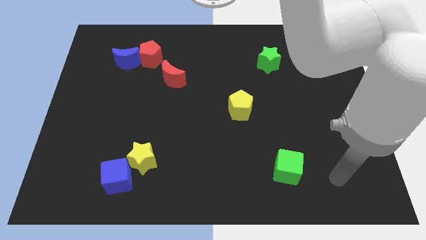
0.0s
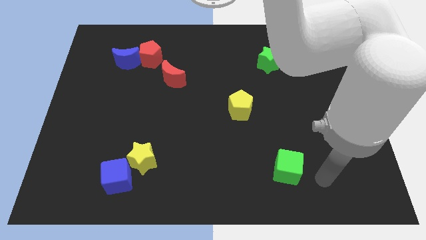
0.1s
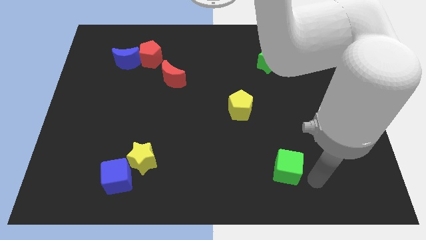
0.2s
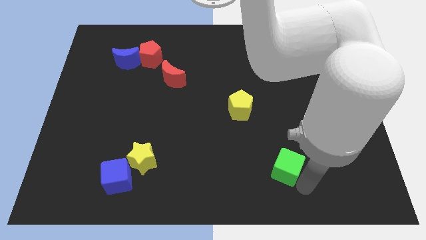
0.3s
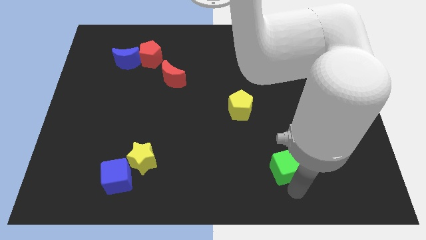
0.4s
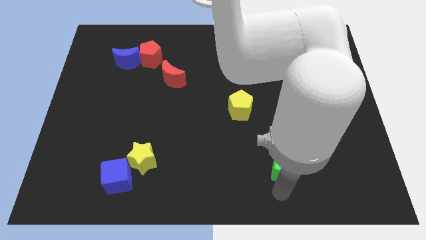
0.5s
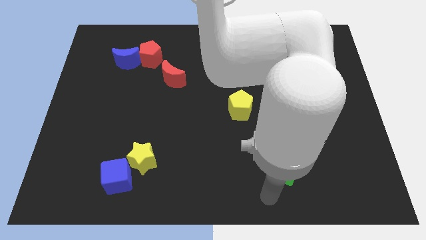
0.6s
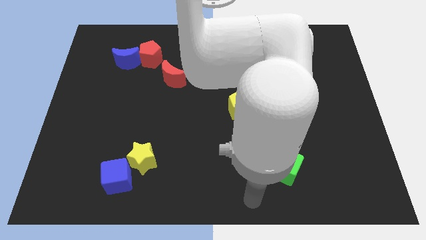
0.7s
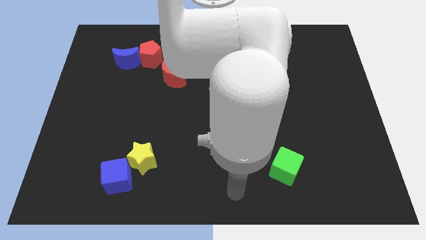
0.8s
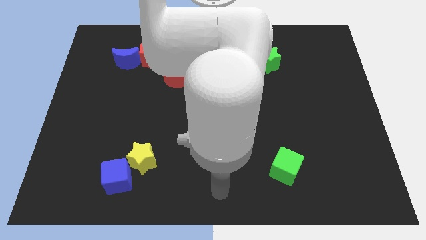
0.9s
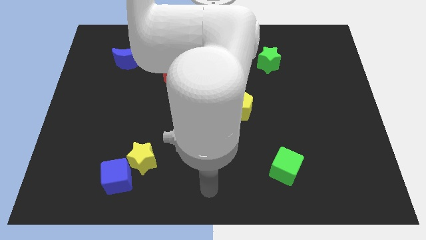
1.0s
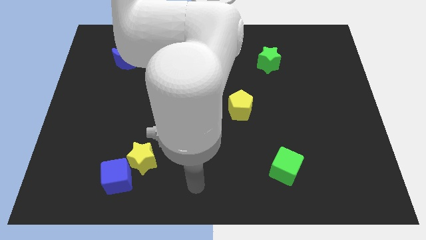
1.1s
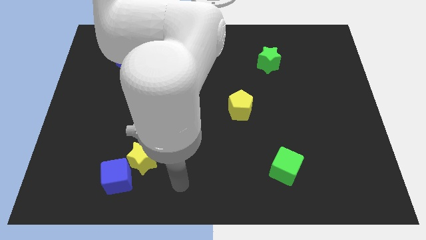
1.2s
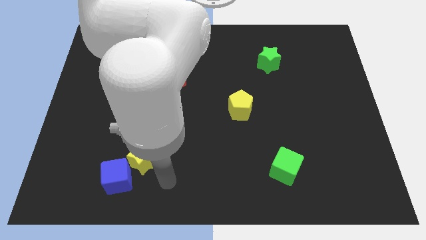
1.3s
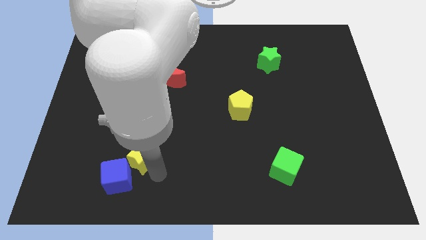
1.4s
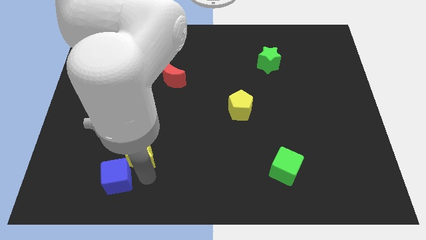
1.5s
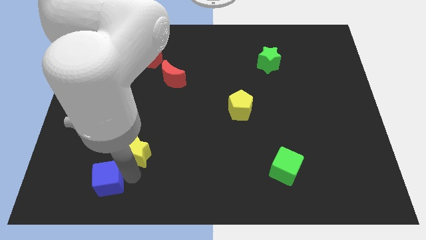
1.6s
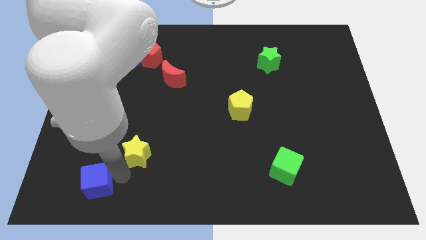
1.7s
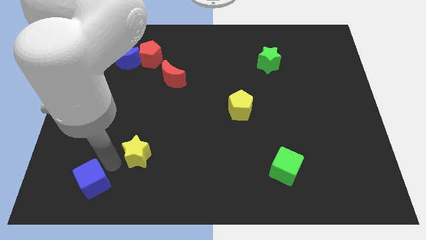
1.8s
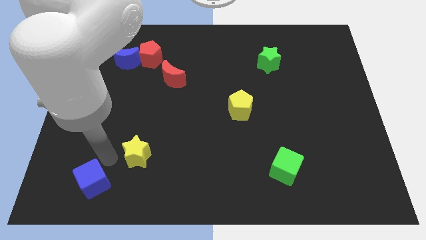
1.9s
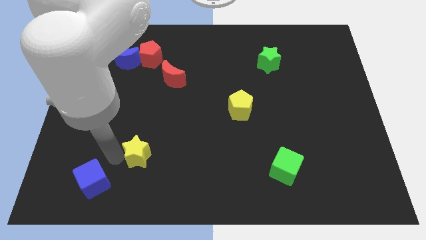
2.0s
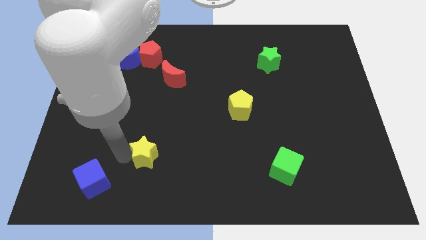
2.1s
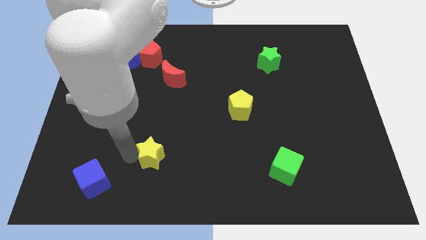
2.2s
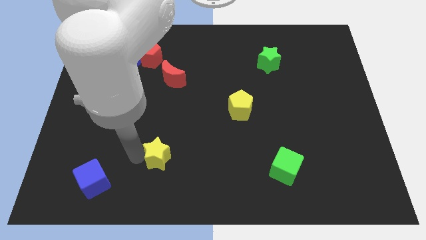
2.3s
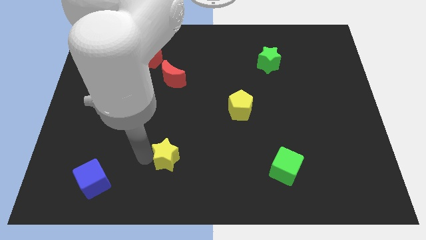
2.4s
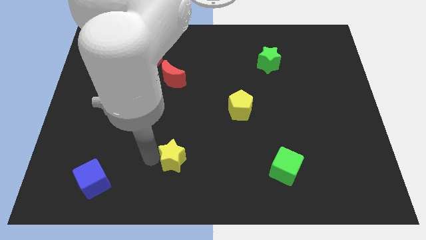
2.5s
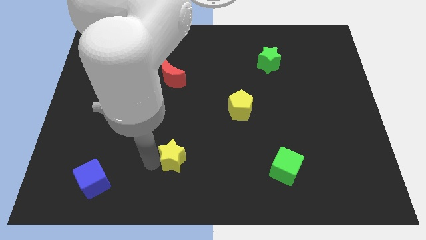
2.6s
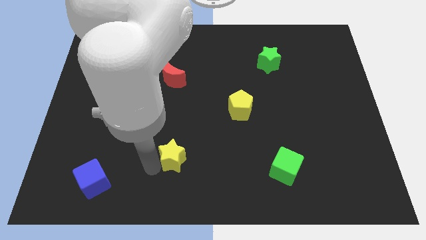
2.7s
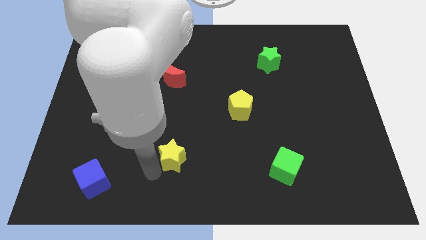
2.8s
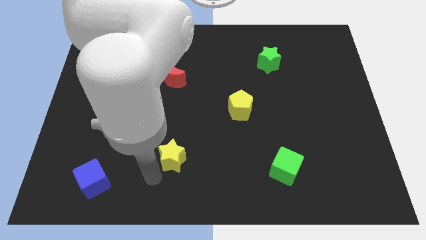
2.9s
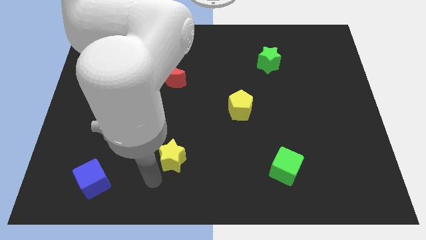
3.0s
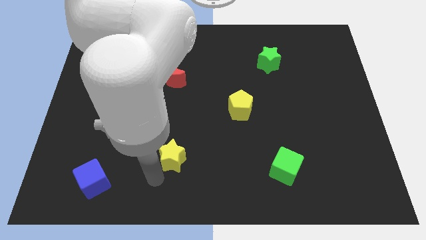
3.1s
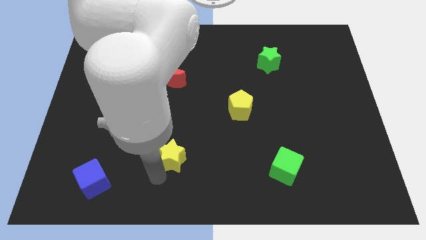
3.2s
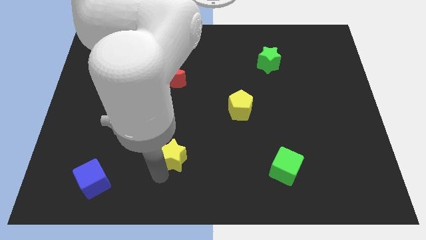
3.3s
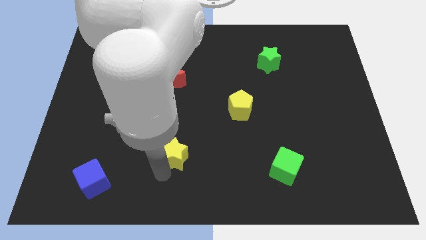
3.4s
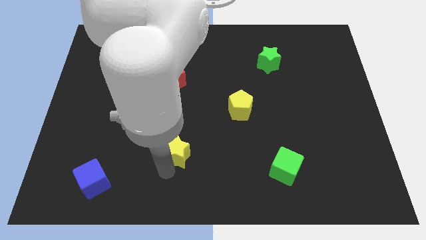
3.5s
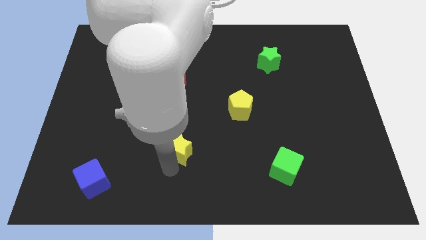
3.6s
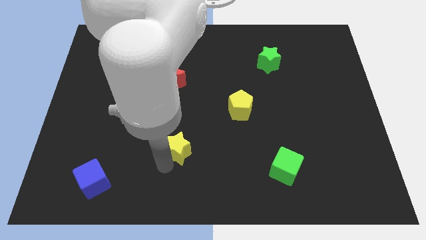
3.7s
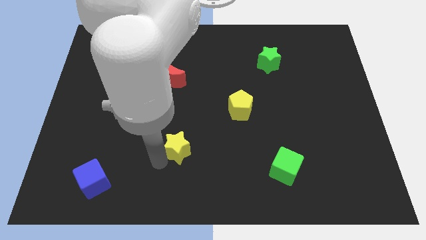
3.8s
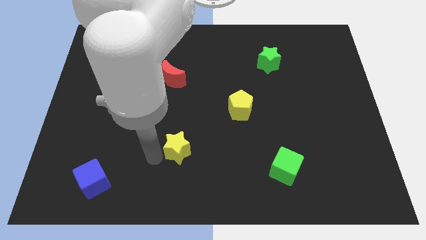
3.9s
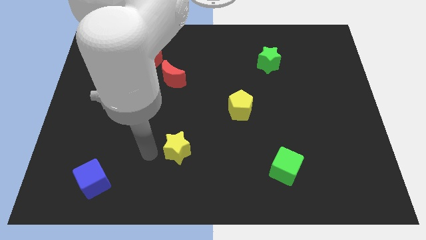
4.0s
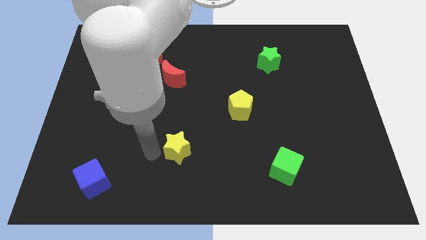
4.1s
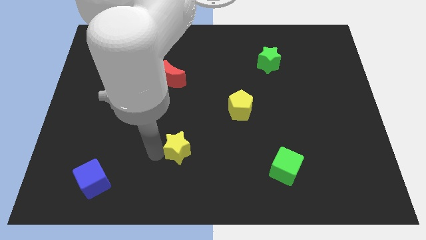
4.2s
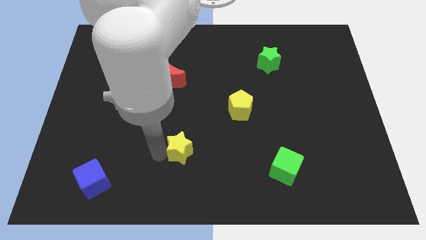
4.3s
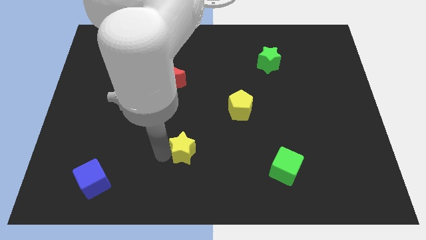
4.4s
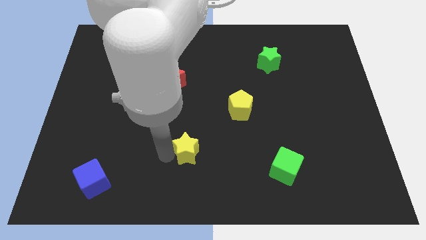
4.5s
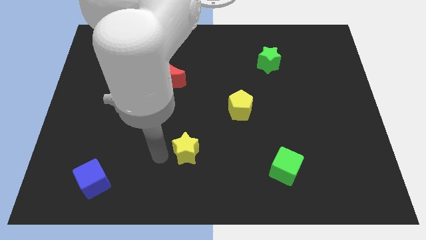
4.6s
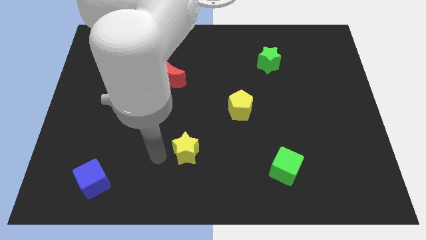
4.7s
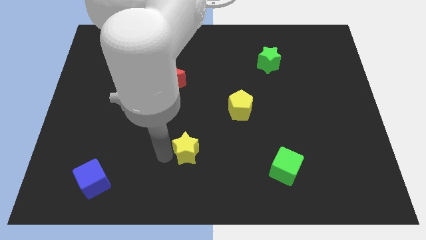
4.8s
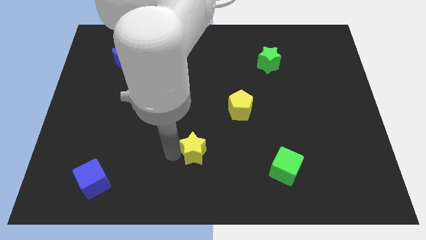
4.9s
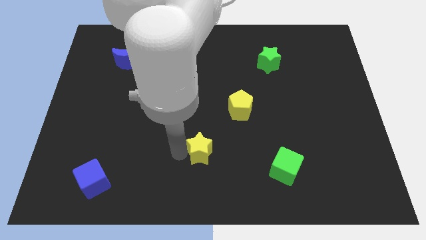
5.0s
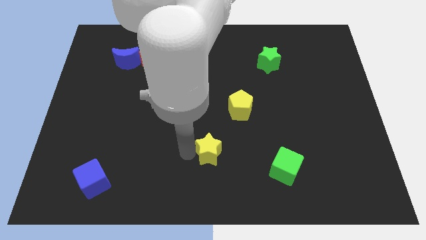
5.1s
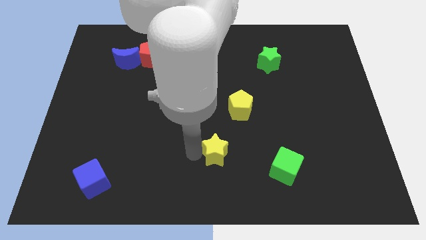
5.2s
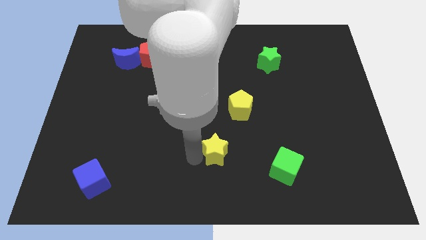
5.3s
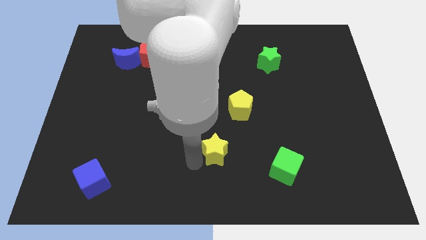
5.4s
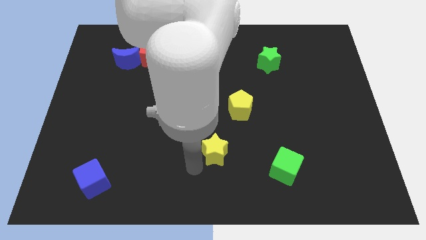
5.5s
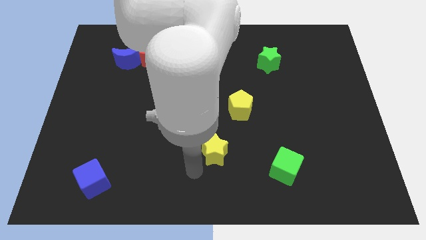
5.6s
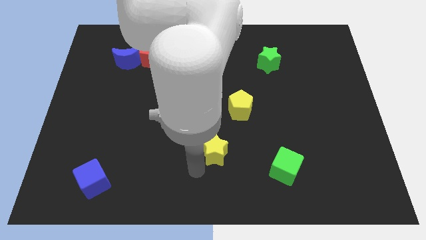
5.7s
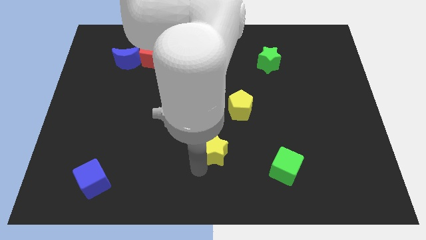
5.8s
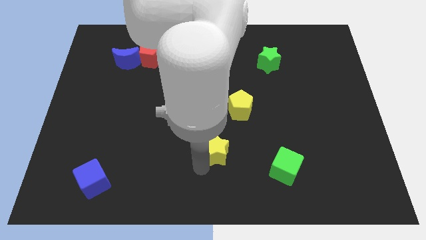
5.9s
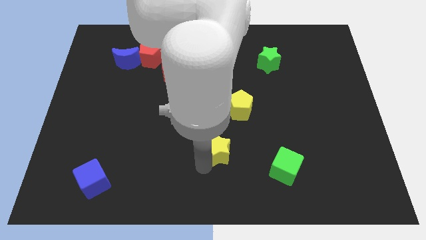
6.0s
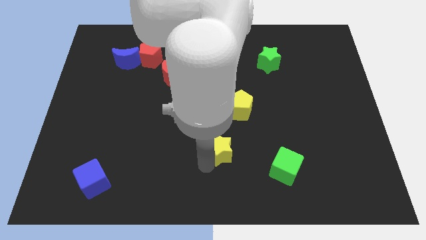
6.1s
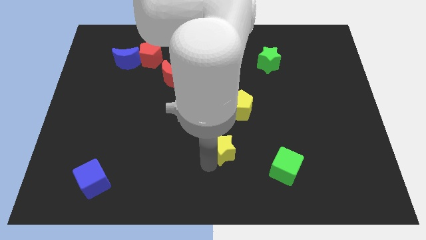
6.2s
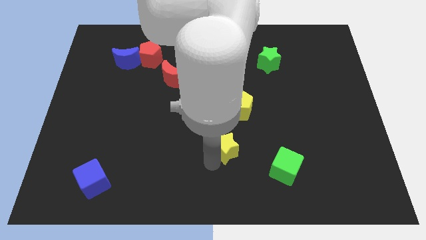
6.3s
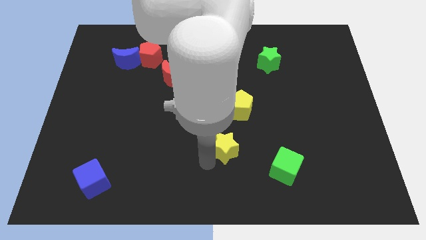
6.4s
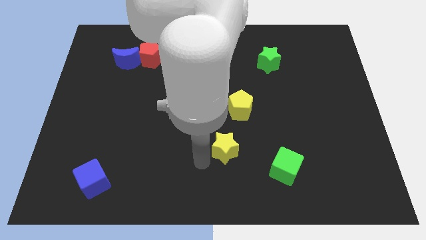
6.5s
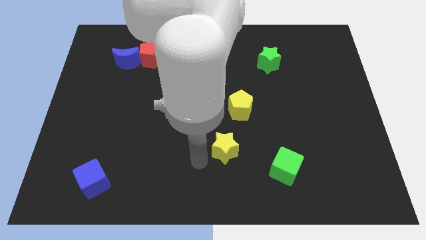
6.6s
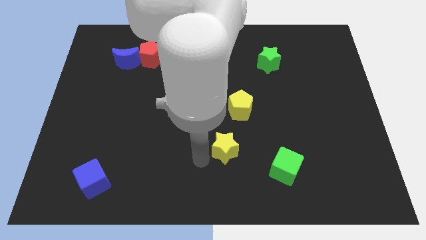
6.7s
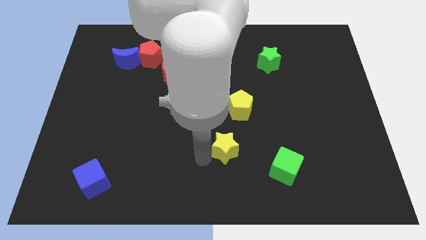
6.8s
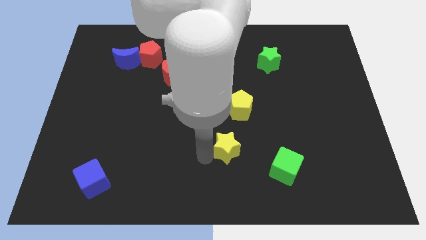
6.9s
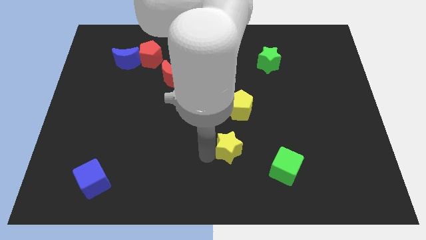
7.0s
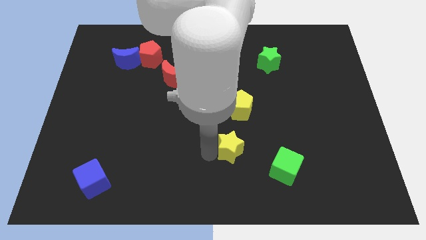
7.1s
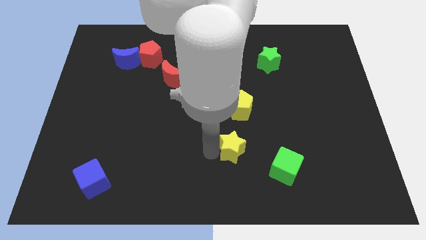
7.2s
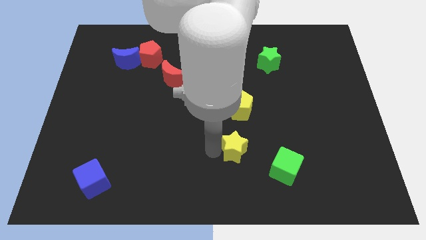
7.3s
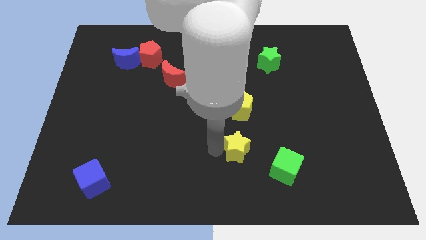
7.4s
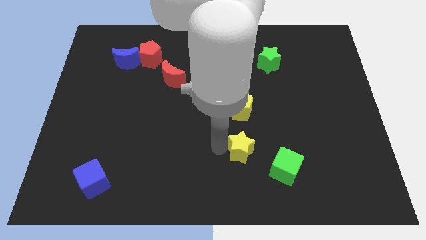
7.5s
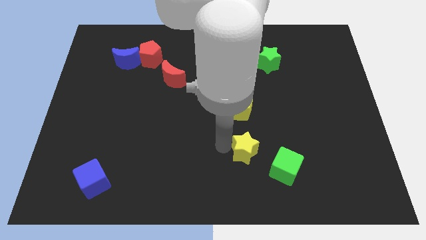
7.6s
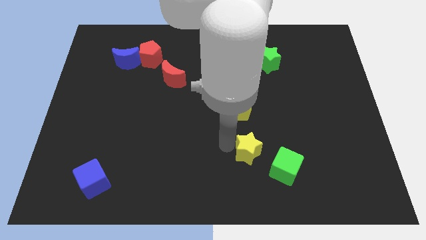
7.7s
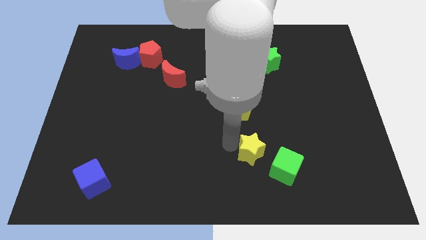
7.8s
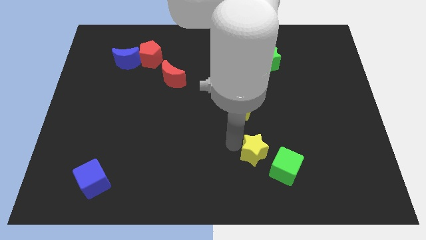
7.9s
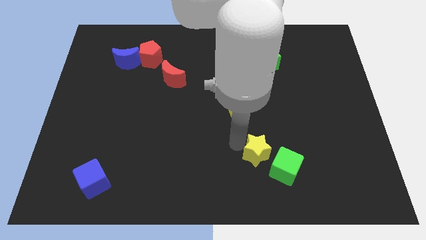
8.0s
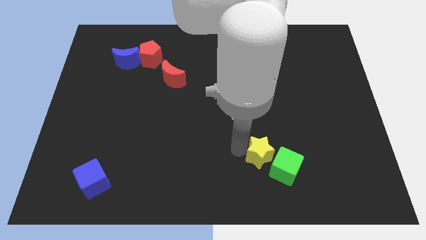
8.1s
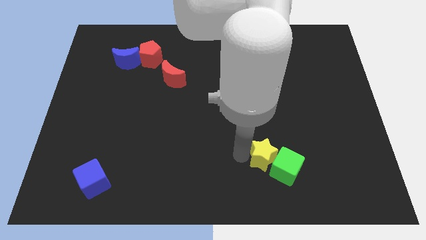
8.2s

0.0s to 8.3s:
push the yellow star to the top of the green cube
